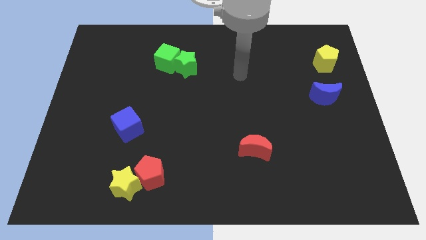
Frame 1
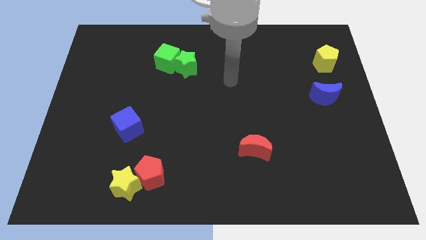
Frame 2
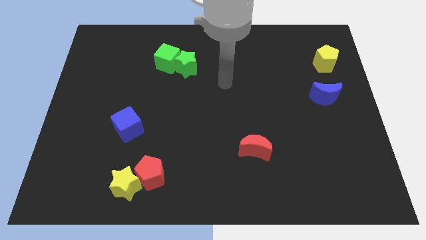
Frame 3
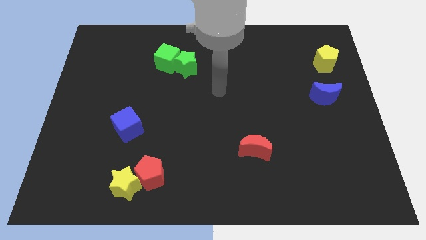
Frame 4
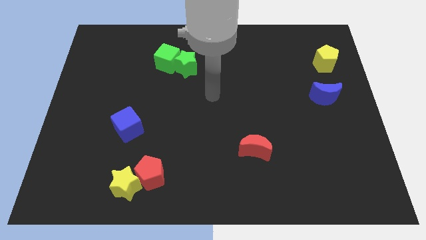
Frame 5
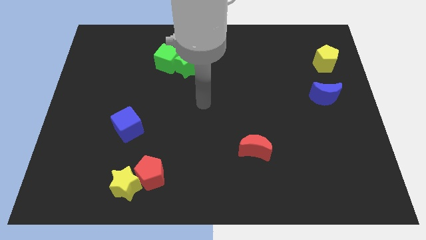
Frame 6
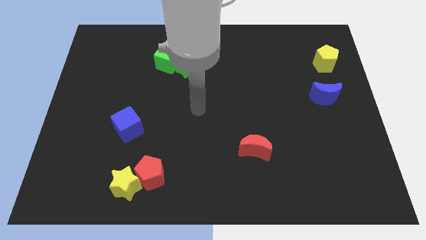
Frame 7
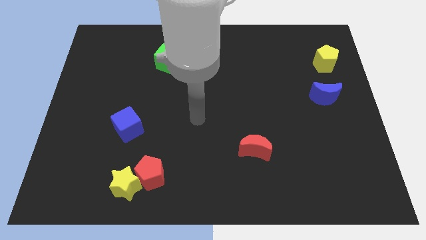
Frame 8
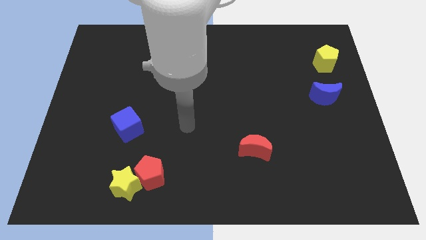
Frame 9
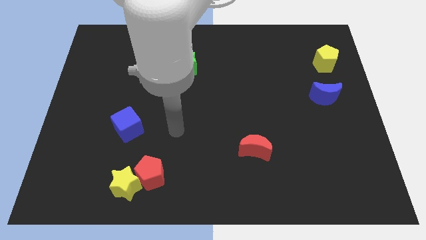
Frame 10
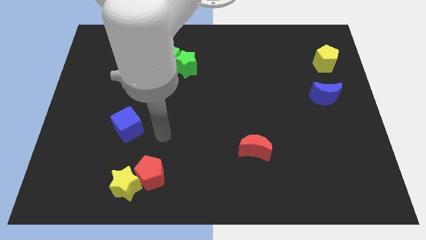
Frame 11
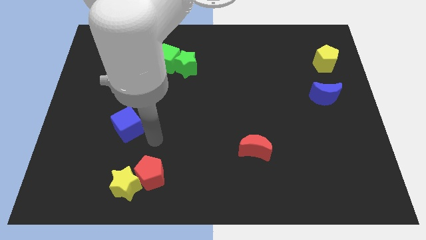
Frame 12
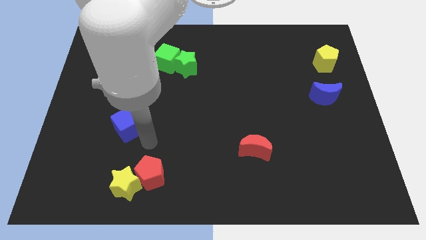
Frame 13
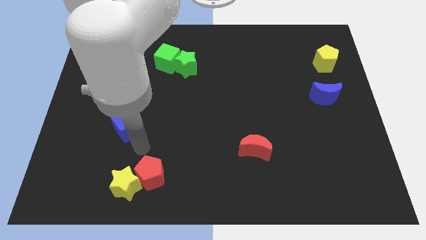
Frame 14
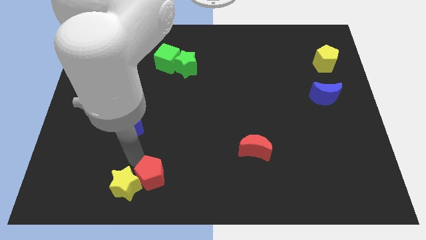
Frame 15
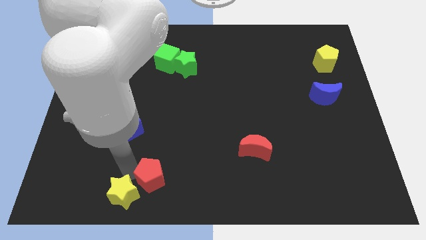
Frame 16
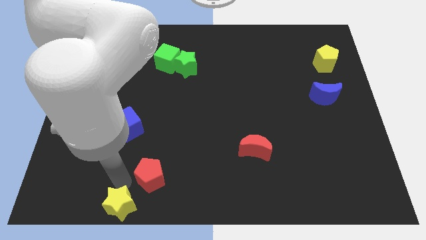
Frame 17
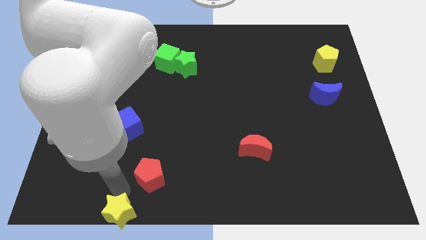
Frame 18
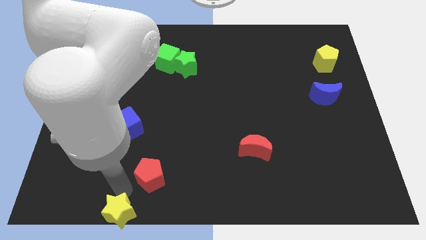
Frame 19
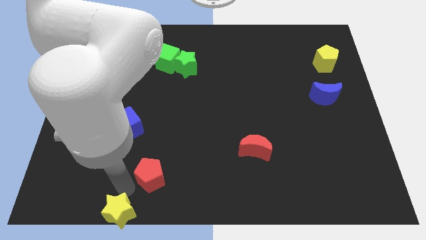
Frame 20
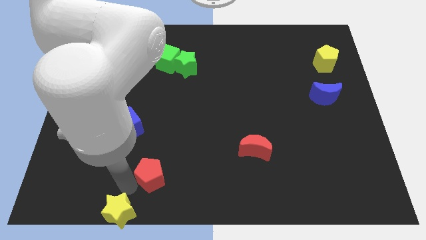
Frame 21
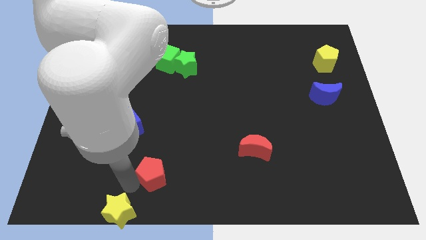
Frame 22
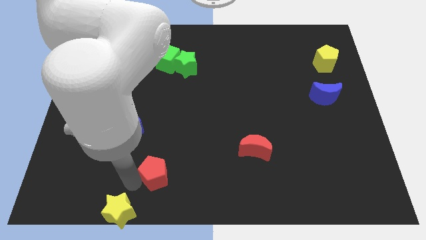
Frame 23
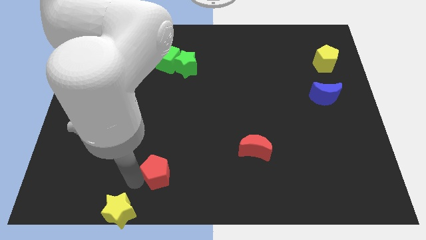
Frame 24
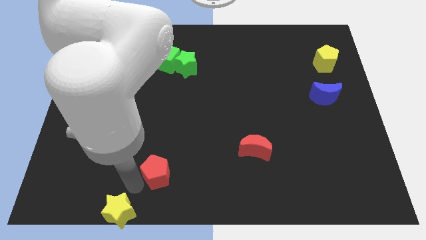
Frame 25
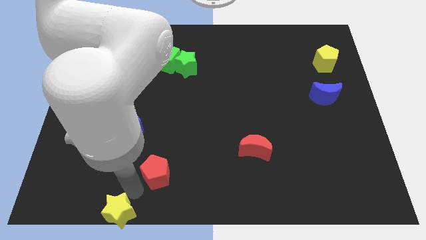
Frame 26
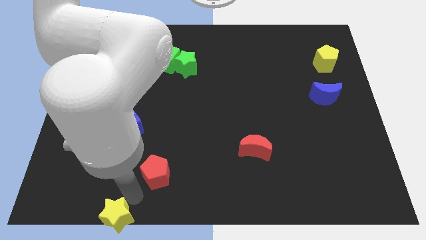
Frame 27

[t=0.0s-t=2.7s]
pull the red pentagon apart from the yellow star

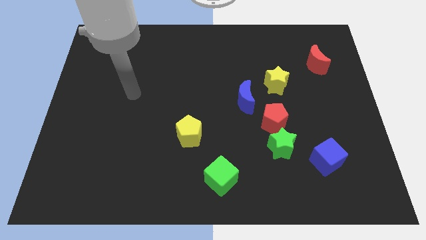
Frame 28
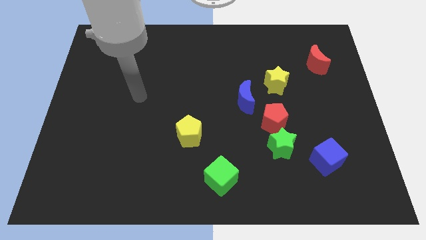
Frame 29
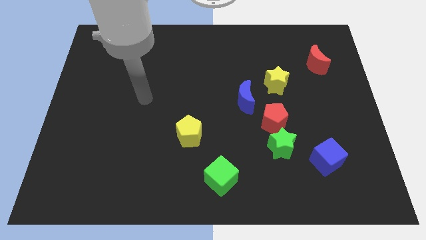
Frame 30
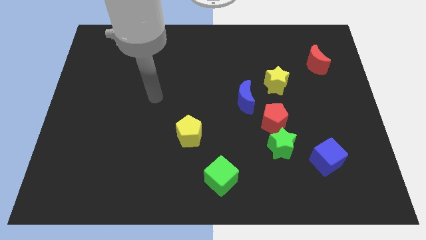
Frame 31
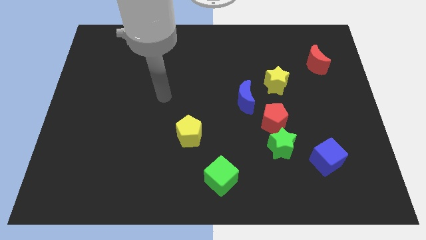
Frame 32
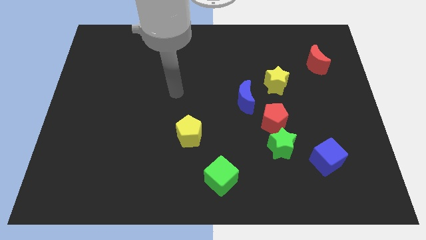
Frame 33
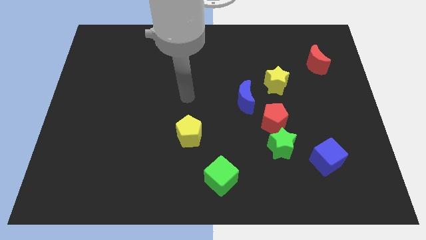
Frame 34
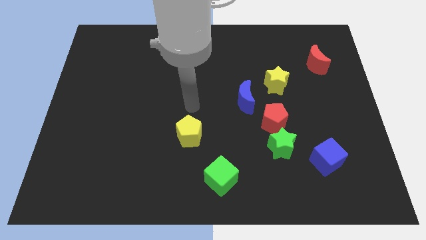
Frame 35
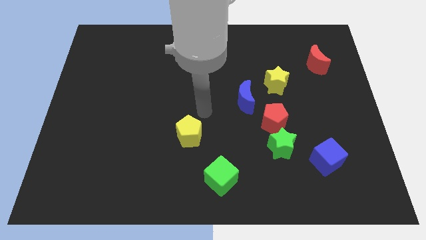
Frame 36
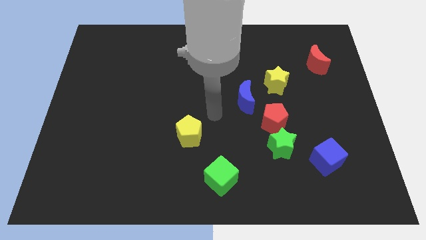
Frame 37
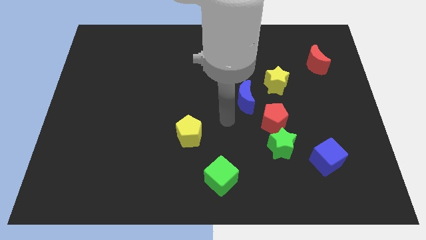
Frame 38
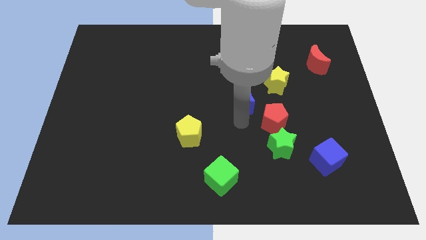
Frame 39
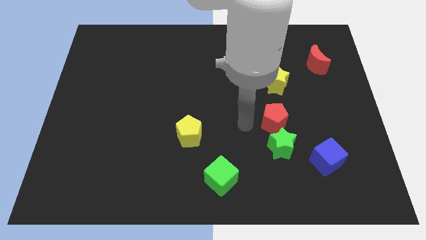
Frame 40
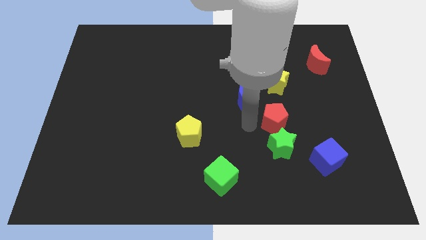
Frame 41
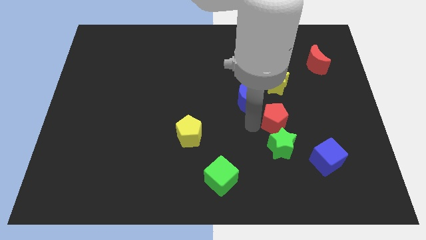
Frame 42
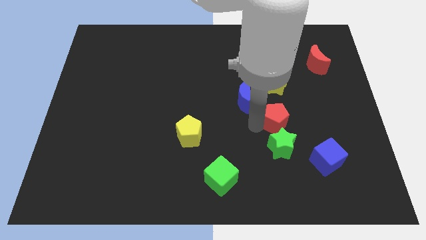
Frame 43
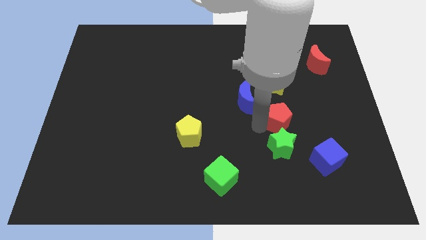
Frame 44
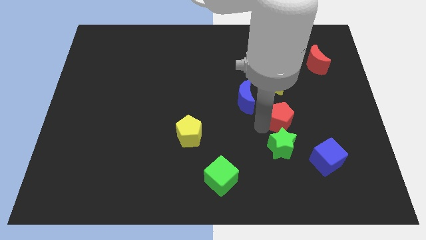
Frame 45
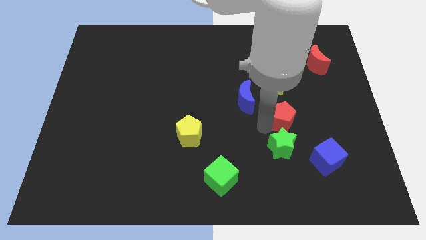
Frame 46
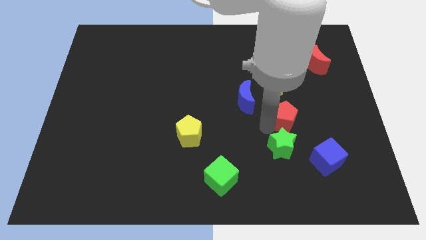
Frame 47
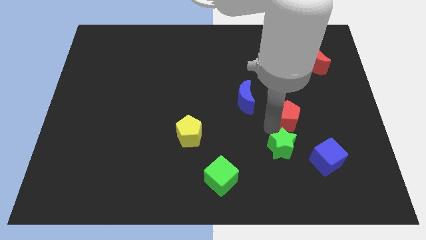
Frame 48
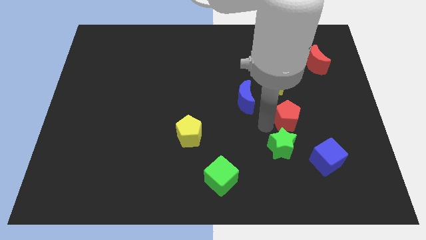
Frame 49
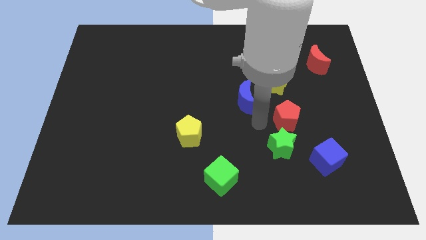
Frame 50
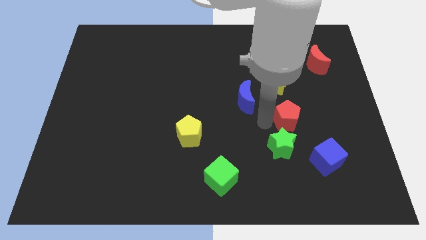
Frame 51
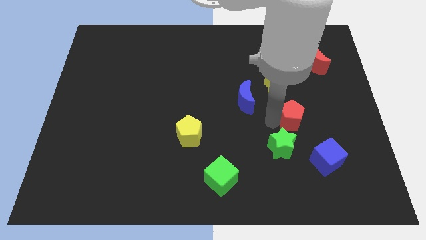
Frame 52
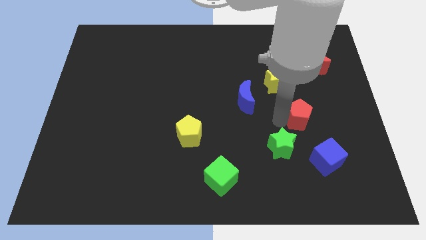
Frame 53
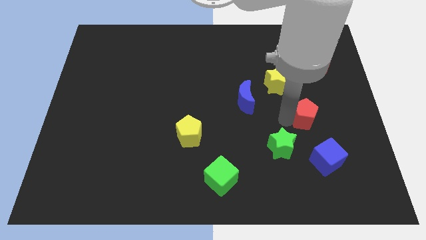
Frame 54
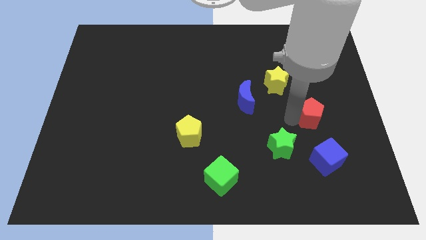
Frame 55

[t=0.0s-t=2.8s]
pull the red pentagon apart from the green star and blue moon

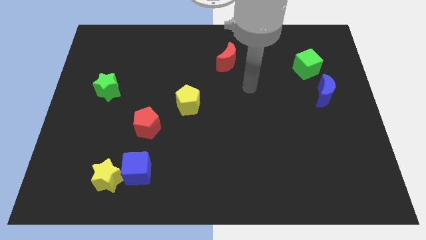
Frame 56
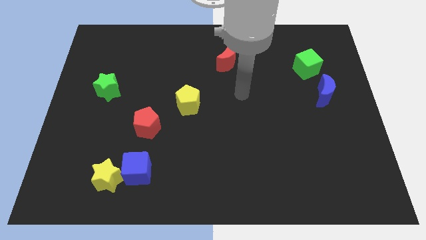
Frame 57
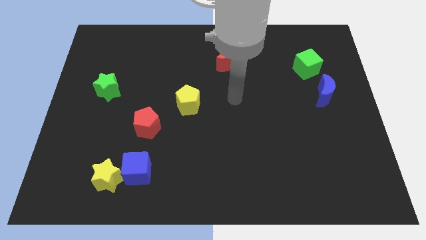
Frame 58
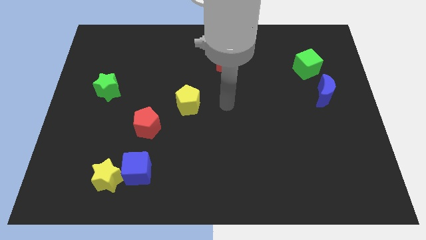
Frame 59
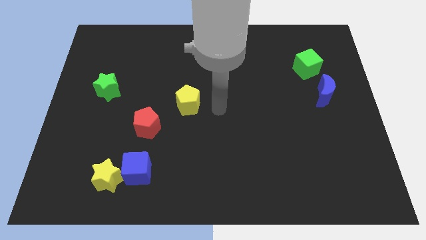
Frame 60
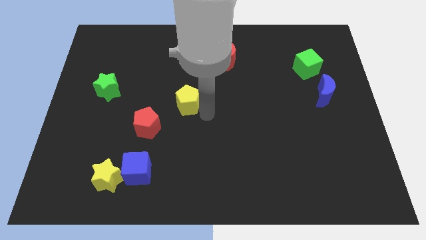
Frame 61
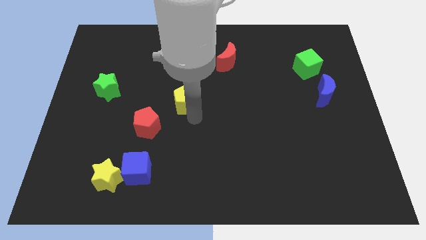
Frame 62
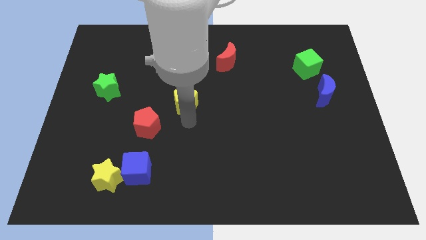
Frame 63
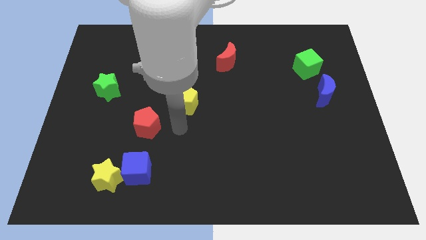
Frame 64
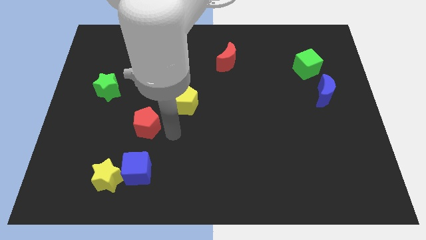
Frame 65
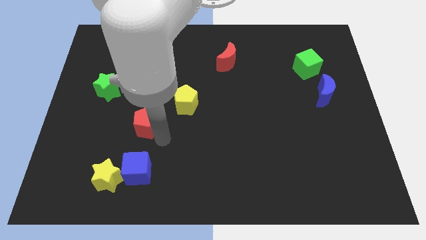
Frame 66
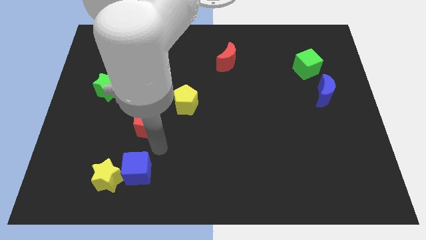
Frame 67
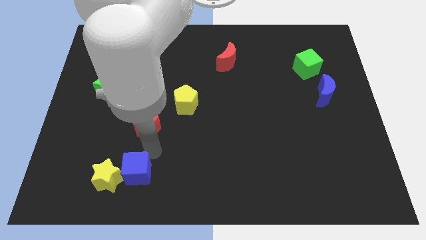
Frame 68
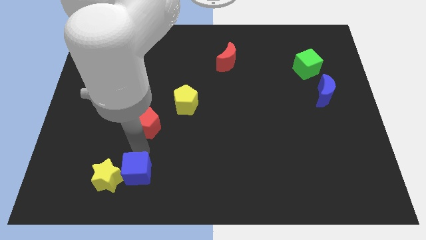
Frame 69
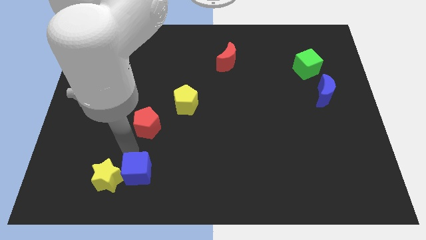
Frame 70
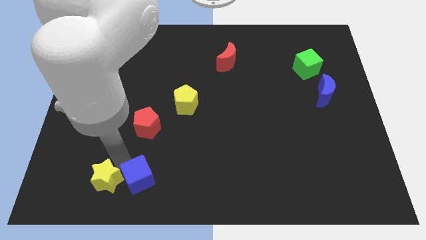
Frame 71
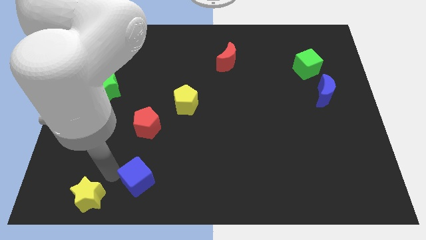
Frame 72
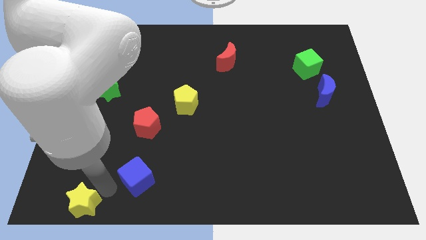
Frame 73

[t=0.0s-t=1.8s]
pull the blue cube apart from the yellow star

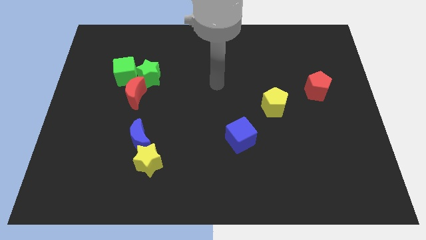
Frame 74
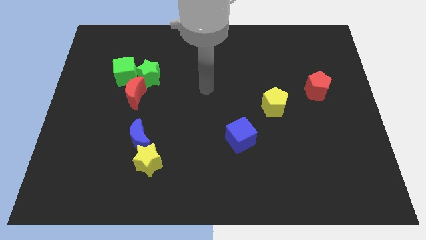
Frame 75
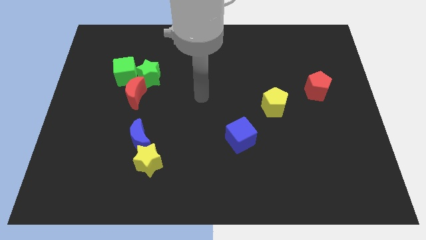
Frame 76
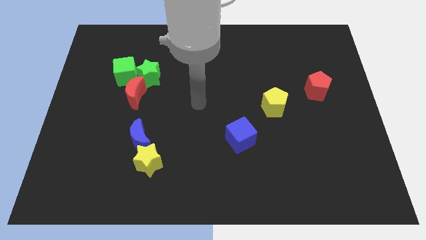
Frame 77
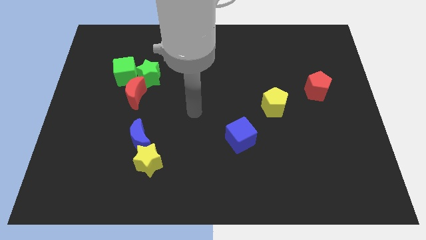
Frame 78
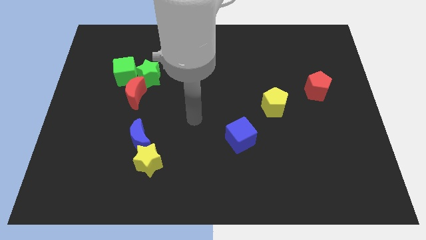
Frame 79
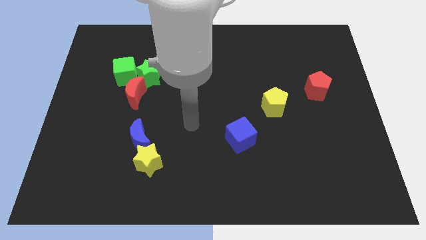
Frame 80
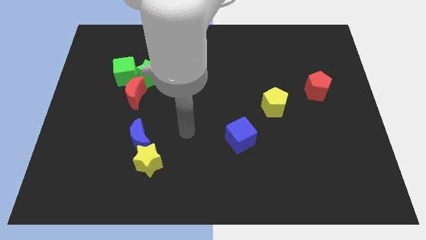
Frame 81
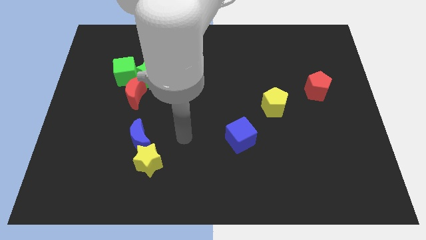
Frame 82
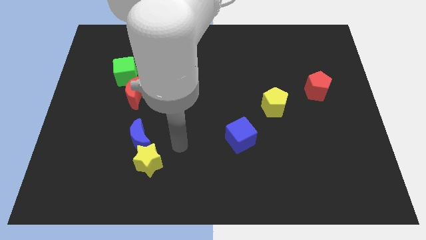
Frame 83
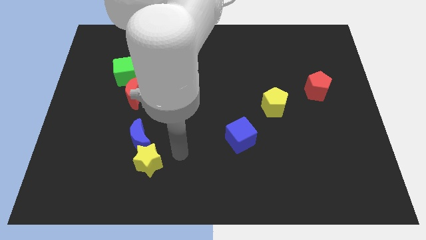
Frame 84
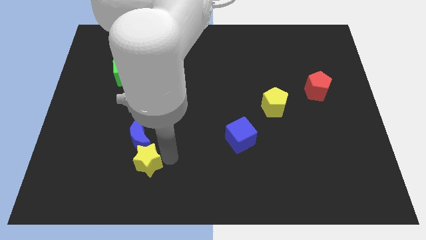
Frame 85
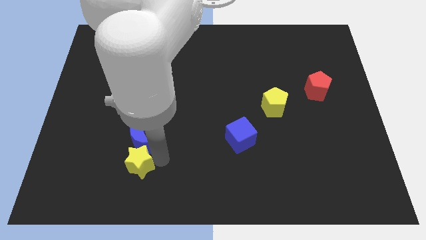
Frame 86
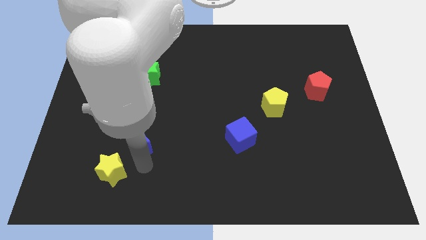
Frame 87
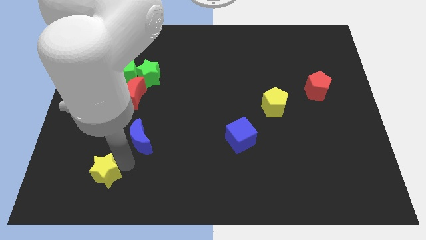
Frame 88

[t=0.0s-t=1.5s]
pull the blue moon apart from the yellow star

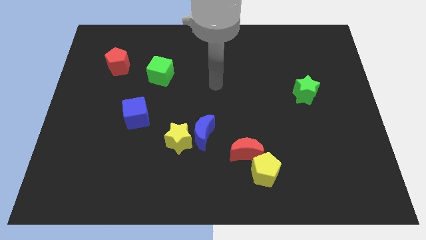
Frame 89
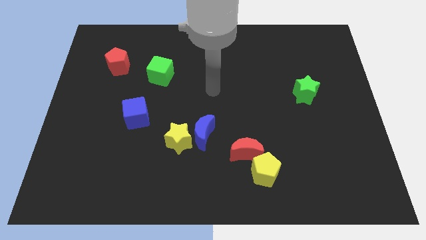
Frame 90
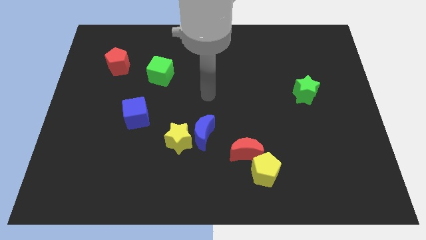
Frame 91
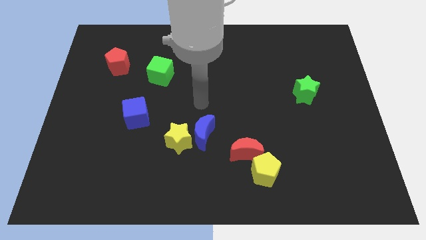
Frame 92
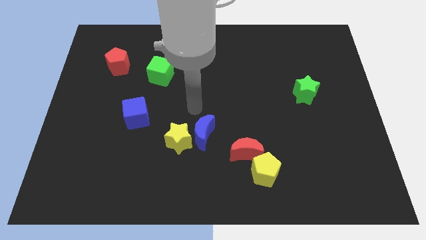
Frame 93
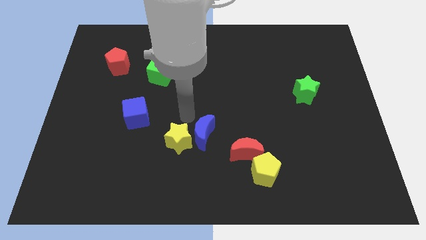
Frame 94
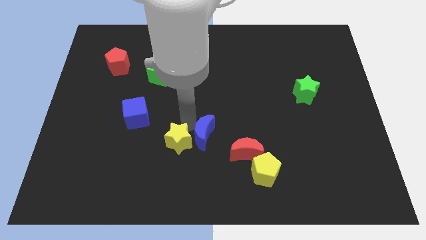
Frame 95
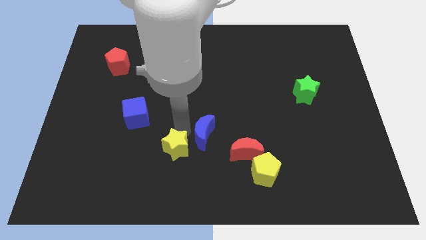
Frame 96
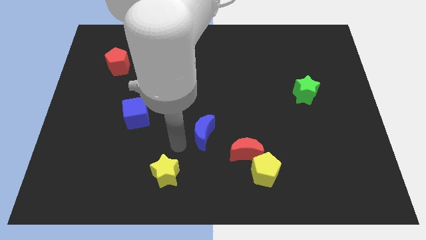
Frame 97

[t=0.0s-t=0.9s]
move the blue moon away from the yellow star
